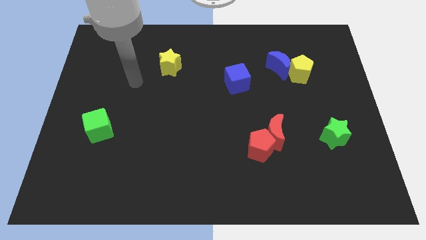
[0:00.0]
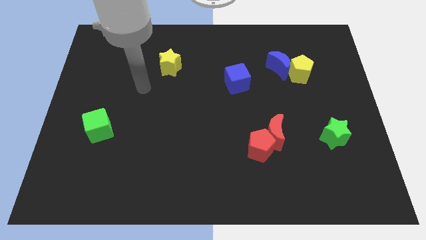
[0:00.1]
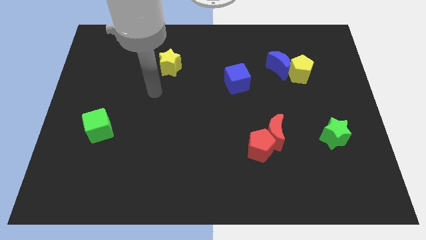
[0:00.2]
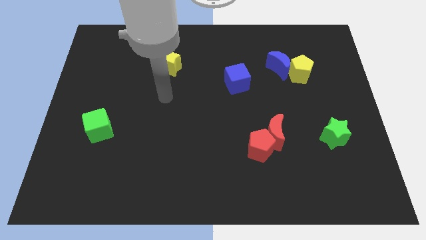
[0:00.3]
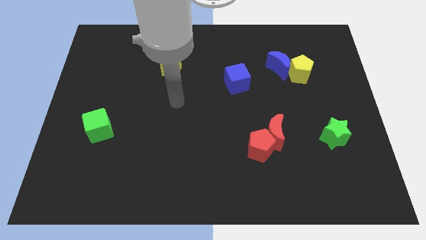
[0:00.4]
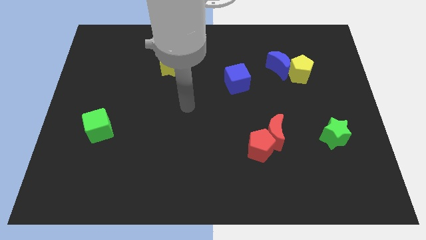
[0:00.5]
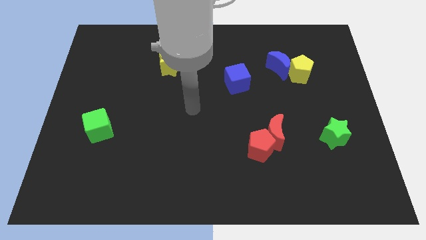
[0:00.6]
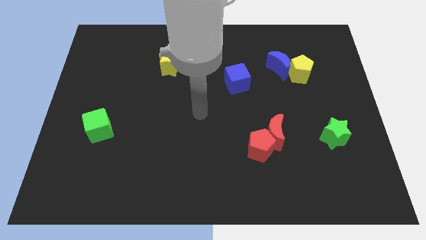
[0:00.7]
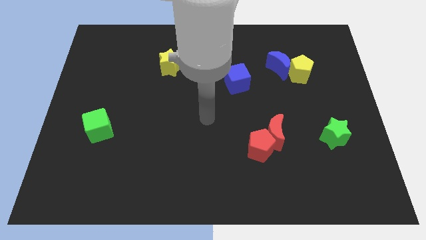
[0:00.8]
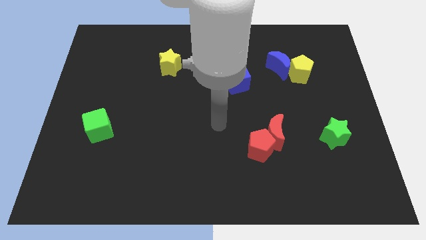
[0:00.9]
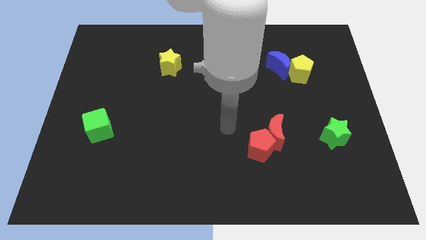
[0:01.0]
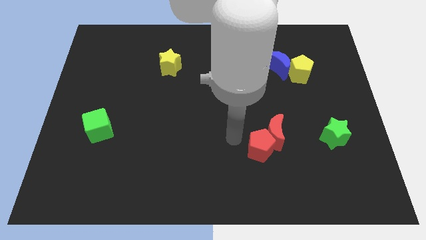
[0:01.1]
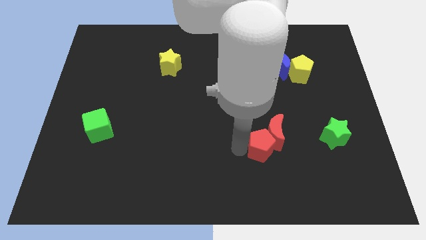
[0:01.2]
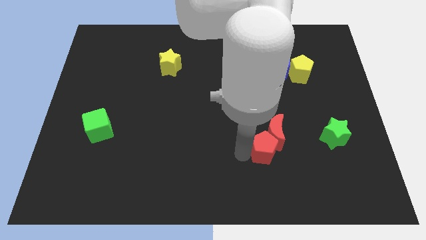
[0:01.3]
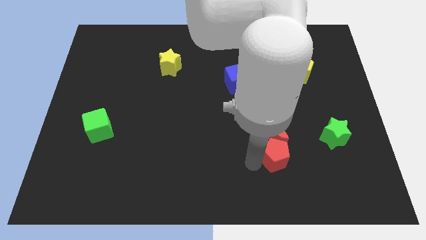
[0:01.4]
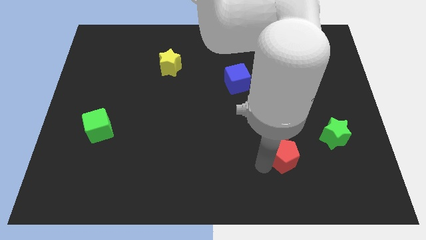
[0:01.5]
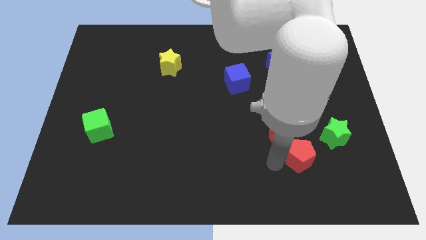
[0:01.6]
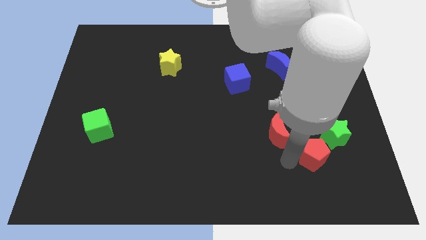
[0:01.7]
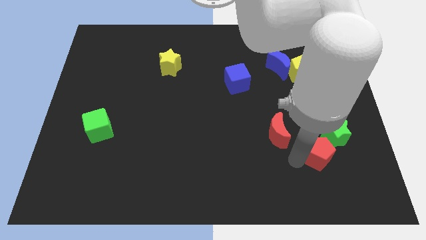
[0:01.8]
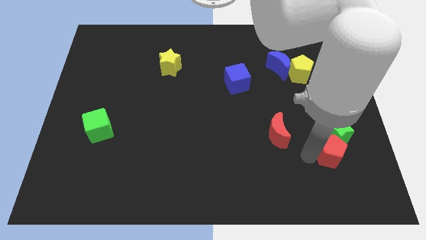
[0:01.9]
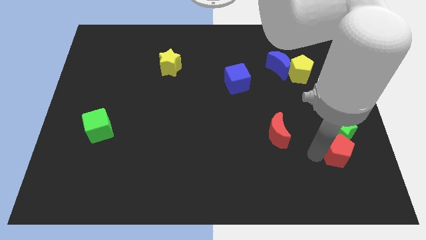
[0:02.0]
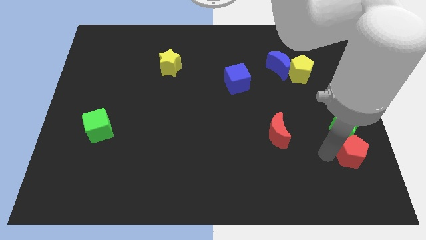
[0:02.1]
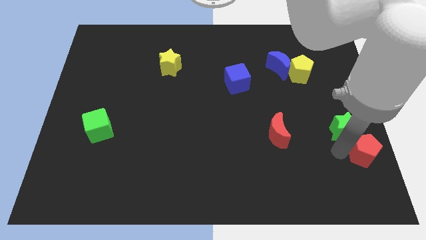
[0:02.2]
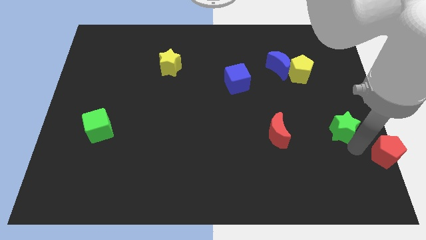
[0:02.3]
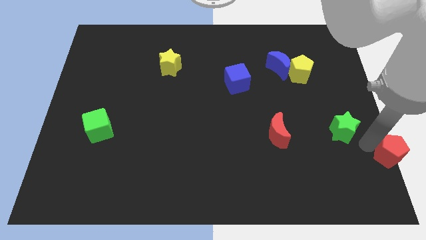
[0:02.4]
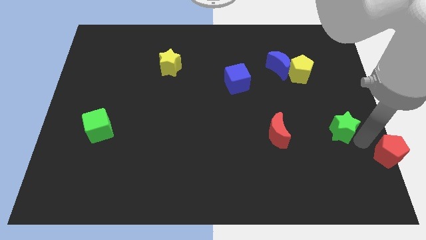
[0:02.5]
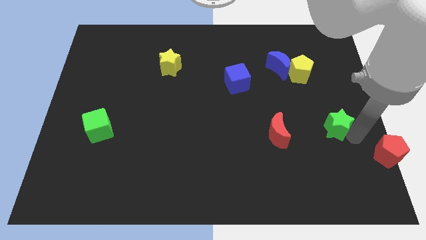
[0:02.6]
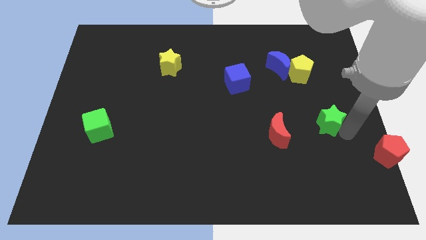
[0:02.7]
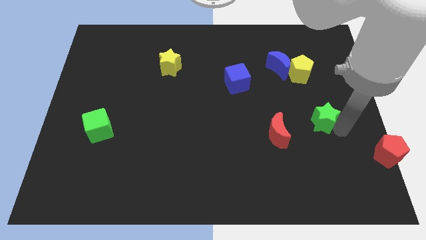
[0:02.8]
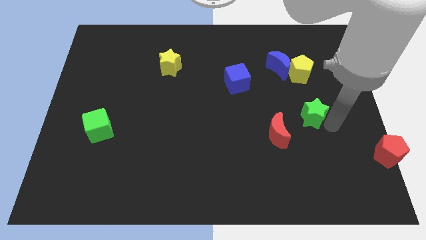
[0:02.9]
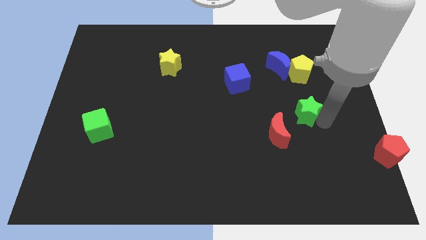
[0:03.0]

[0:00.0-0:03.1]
move the green star slightly upwards and to the left diagonally

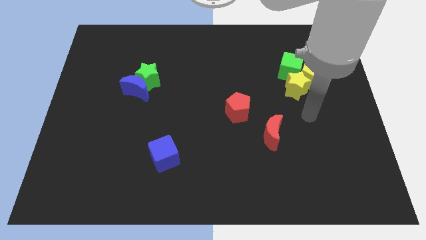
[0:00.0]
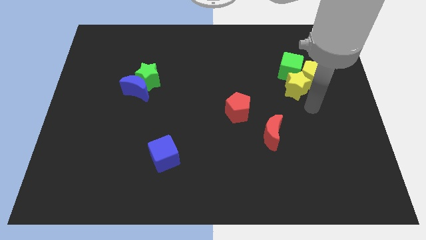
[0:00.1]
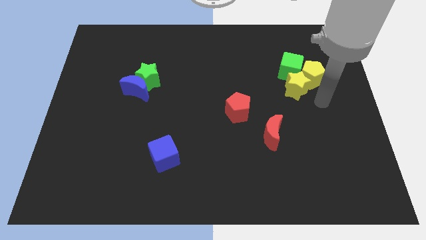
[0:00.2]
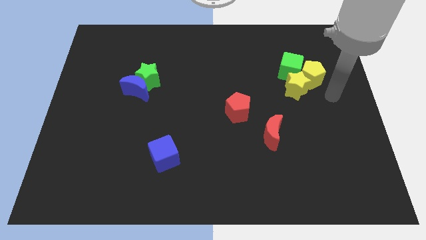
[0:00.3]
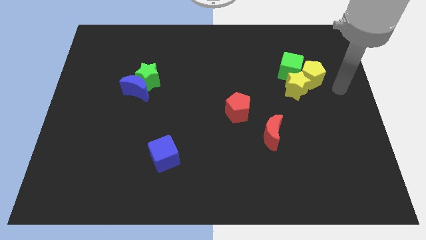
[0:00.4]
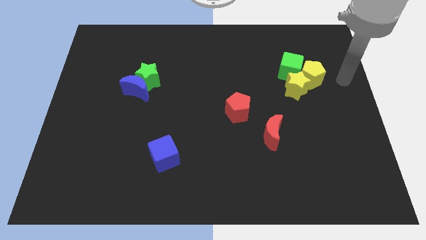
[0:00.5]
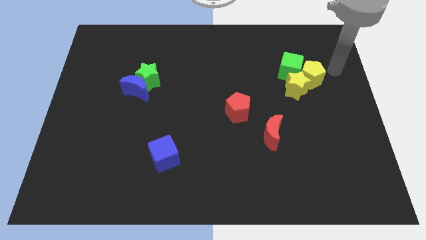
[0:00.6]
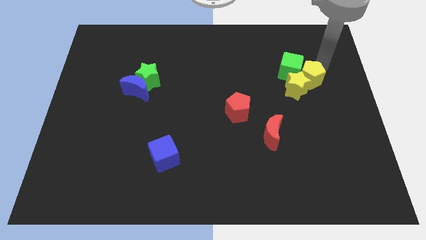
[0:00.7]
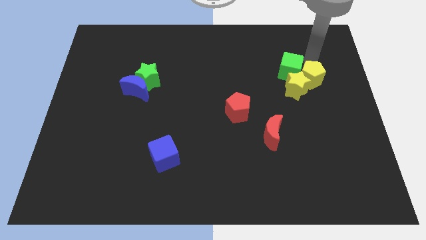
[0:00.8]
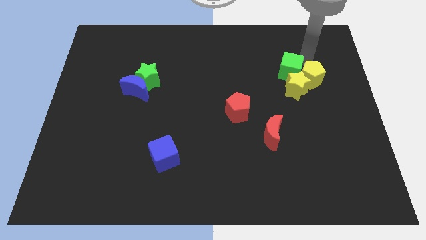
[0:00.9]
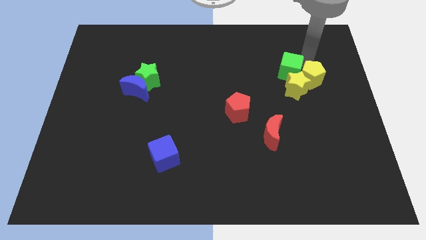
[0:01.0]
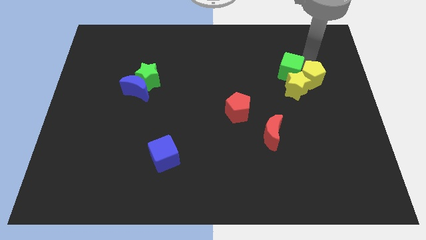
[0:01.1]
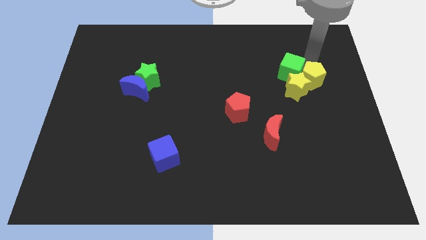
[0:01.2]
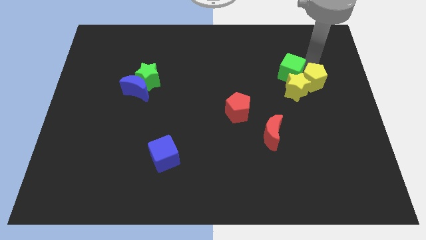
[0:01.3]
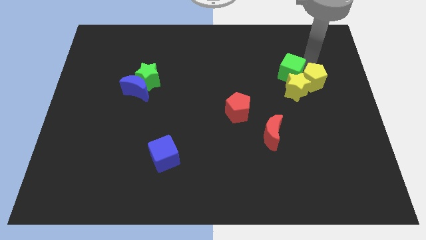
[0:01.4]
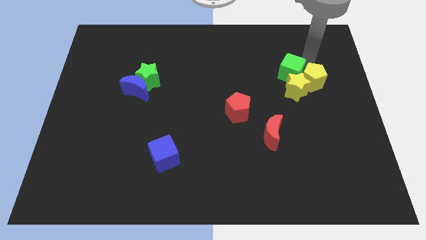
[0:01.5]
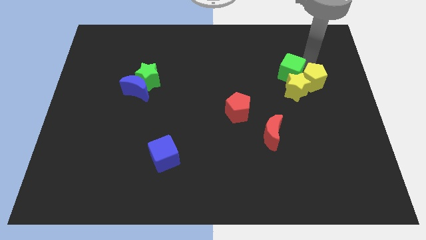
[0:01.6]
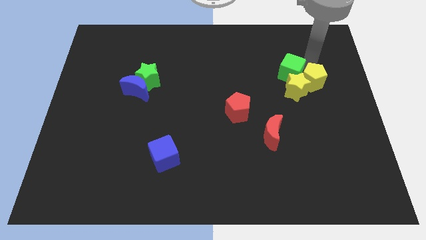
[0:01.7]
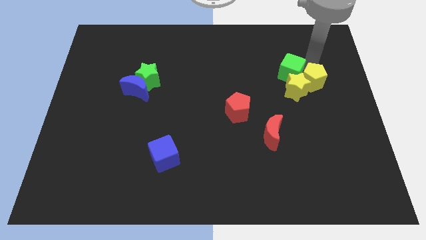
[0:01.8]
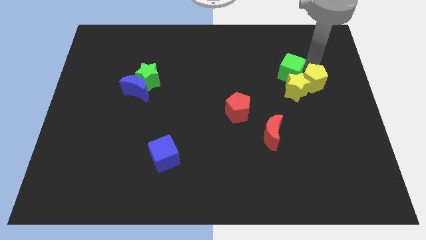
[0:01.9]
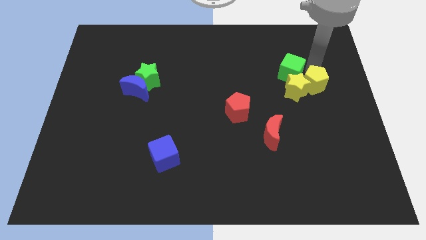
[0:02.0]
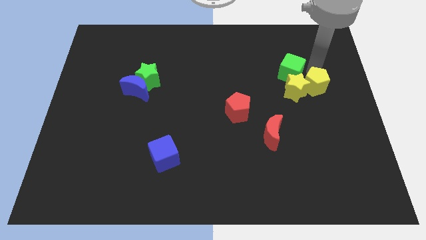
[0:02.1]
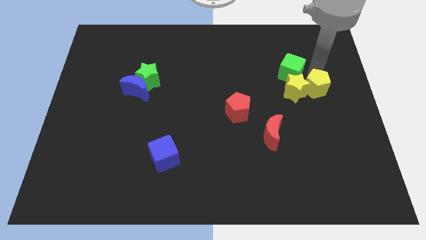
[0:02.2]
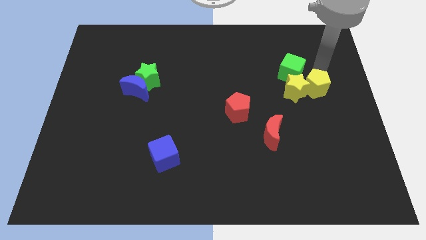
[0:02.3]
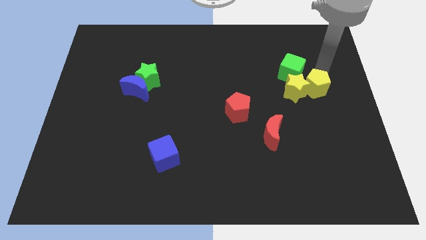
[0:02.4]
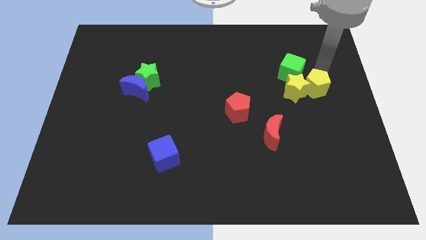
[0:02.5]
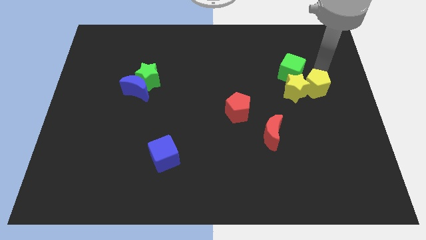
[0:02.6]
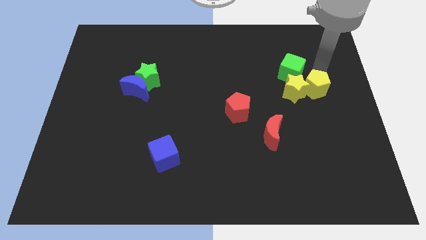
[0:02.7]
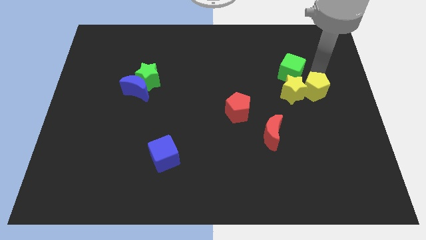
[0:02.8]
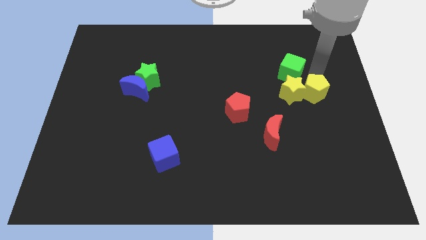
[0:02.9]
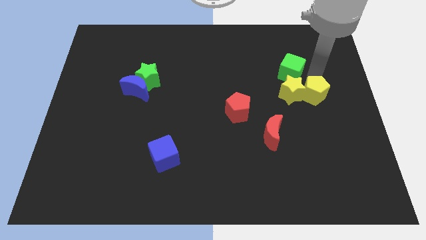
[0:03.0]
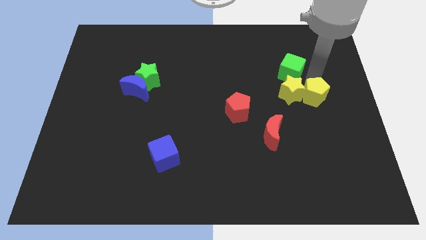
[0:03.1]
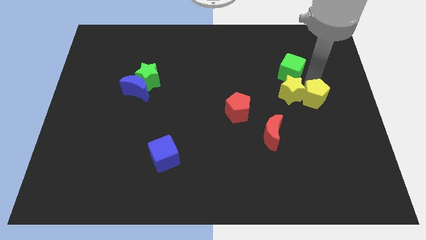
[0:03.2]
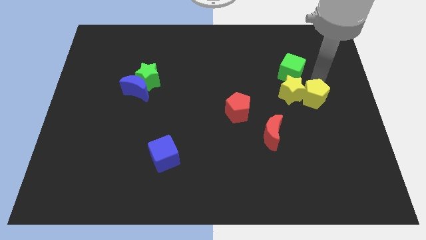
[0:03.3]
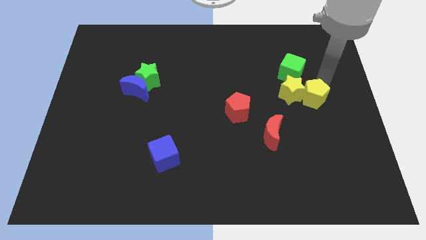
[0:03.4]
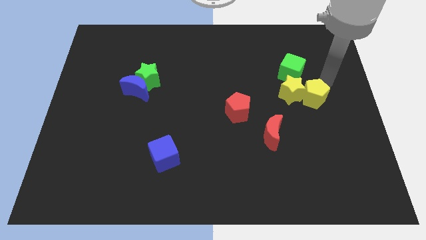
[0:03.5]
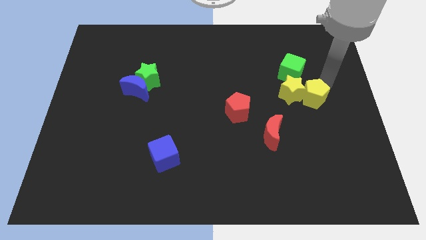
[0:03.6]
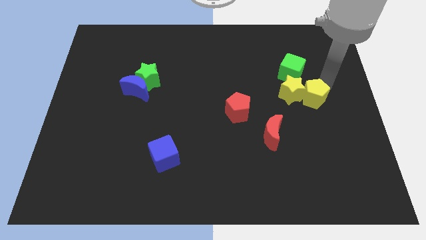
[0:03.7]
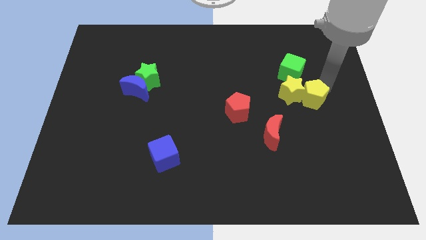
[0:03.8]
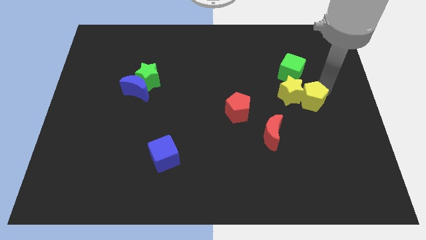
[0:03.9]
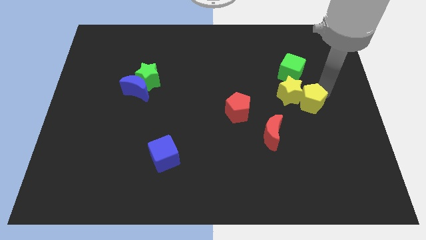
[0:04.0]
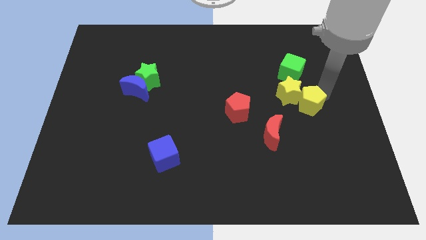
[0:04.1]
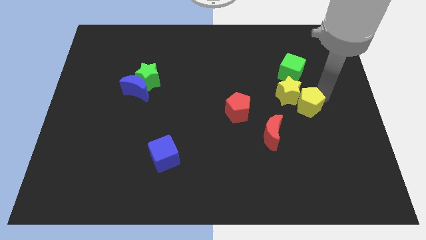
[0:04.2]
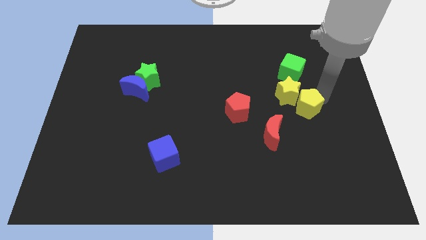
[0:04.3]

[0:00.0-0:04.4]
move the yellow pentagon down and to the left diagonally a little
